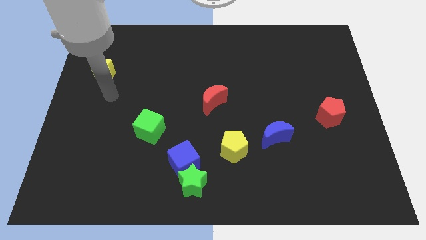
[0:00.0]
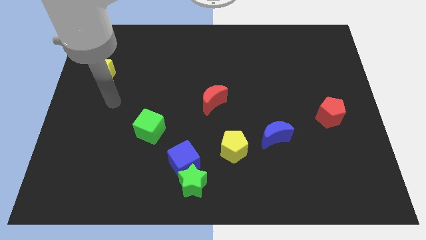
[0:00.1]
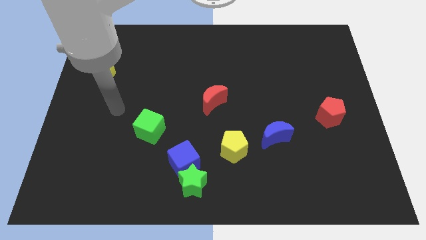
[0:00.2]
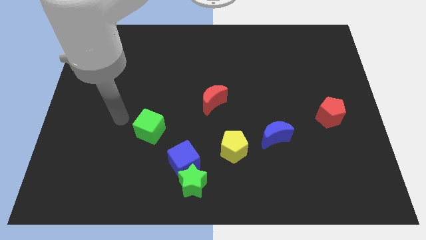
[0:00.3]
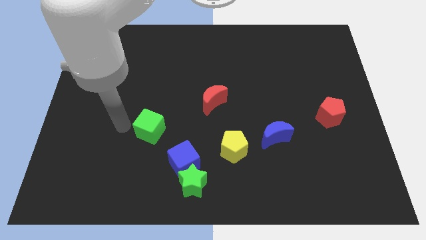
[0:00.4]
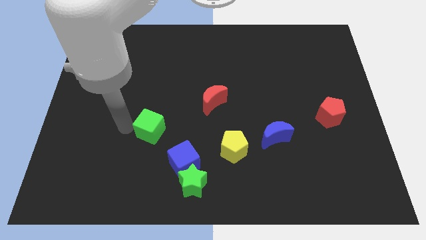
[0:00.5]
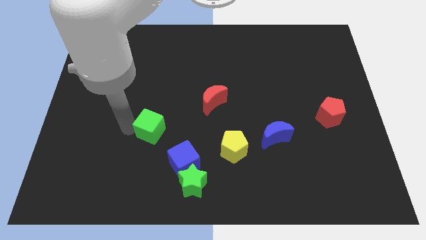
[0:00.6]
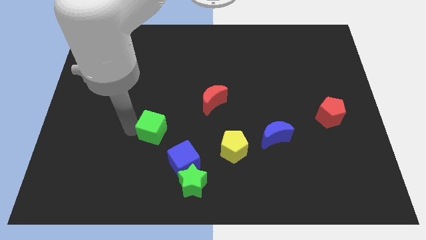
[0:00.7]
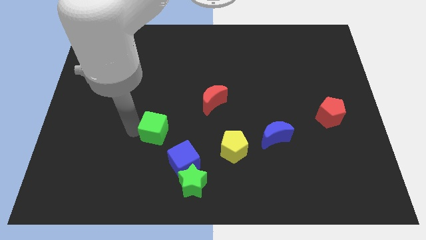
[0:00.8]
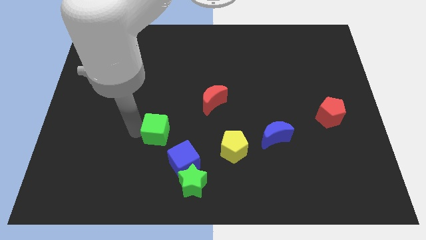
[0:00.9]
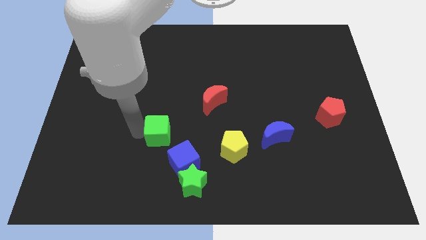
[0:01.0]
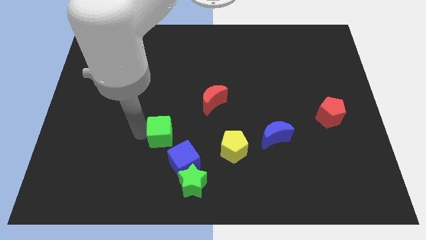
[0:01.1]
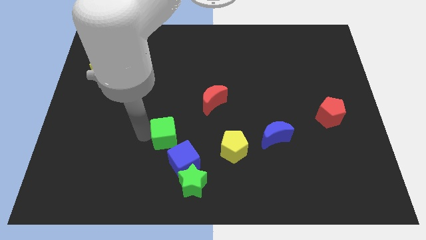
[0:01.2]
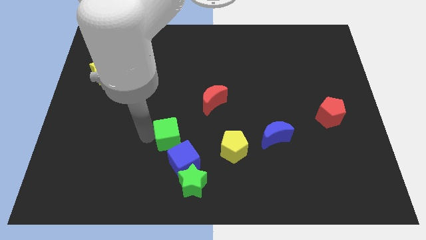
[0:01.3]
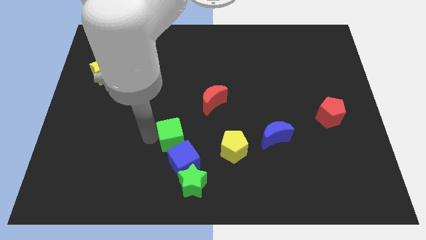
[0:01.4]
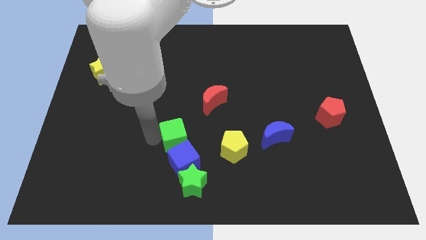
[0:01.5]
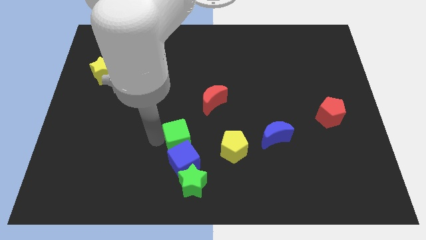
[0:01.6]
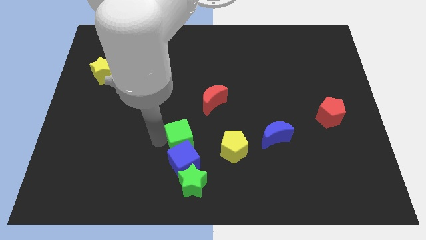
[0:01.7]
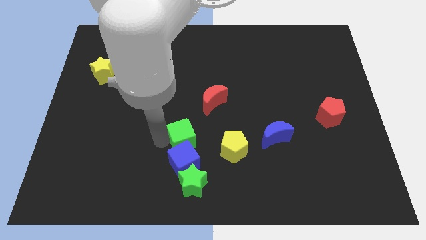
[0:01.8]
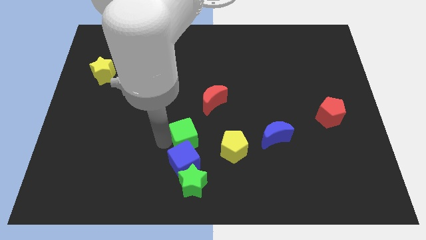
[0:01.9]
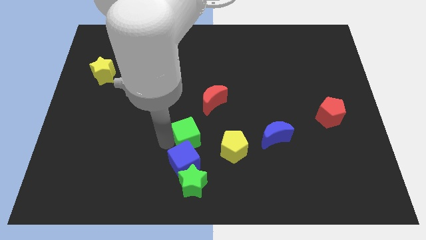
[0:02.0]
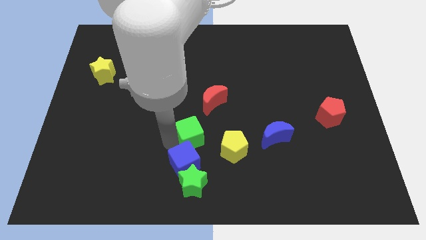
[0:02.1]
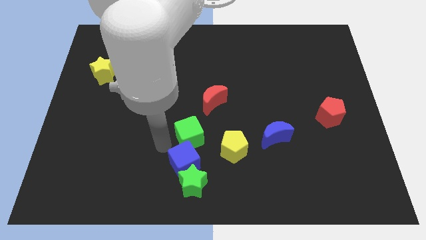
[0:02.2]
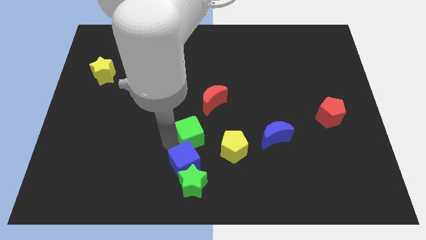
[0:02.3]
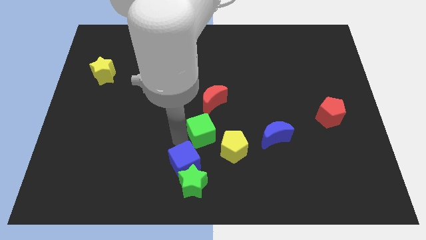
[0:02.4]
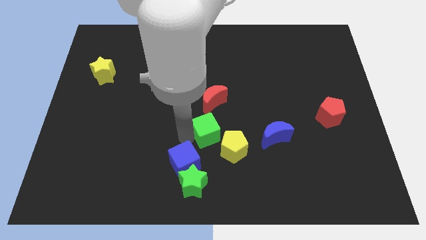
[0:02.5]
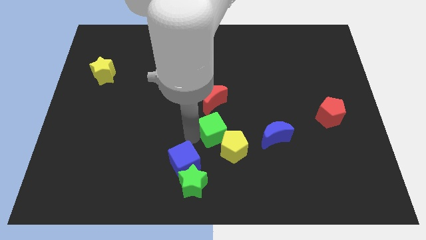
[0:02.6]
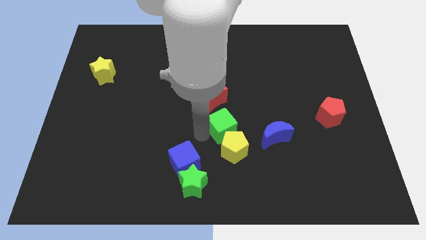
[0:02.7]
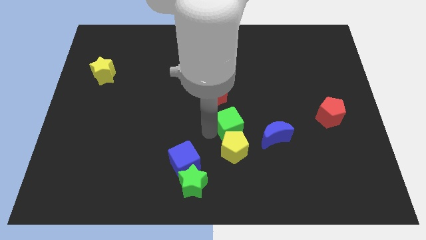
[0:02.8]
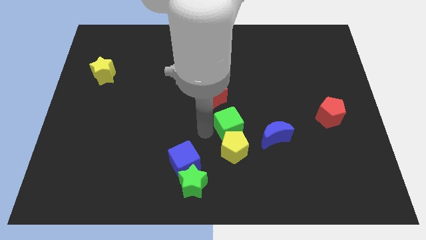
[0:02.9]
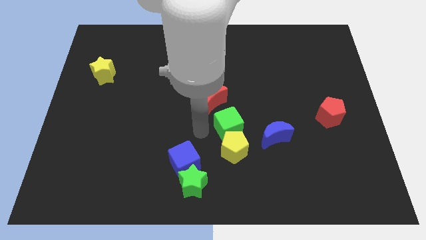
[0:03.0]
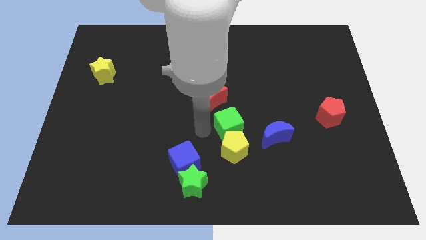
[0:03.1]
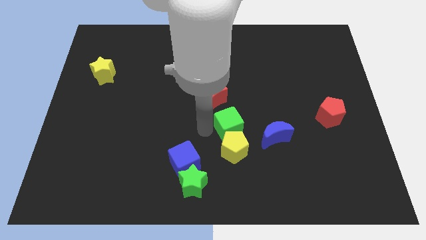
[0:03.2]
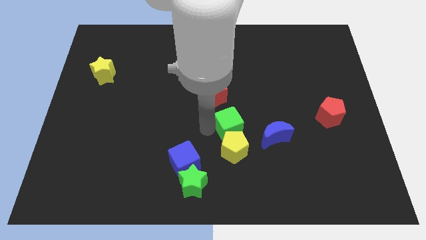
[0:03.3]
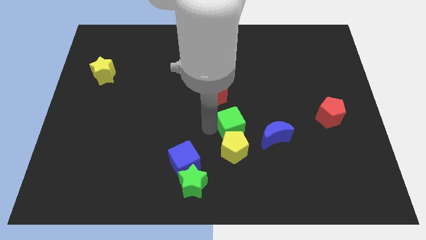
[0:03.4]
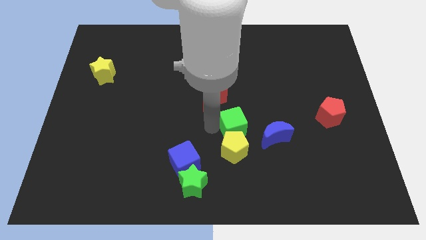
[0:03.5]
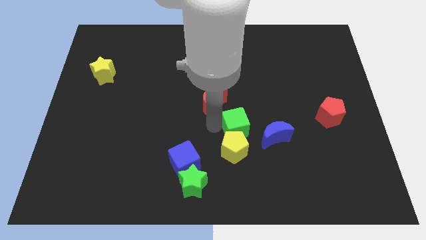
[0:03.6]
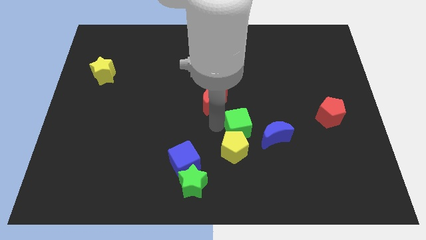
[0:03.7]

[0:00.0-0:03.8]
move the green cube to the right

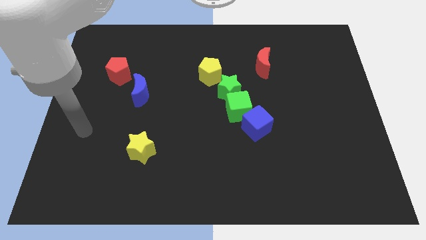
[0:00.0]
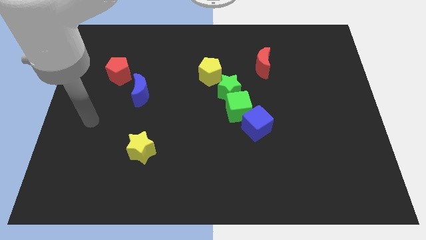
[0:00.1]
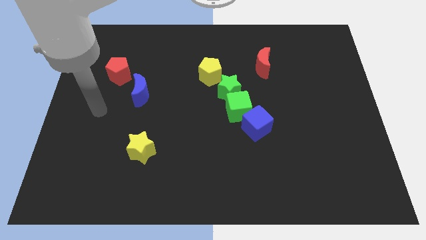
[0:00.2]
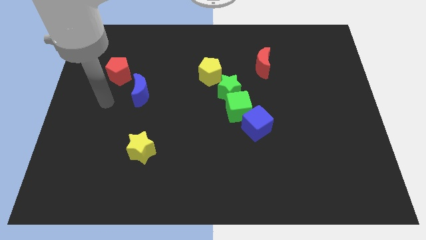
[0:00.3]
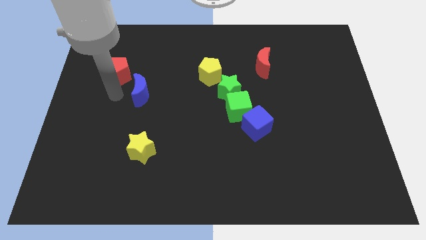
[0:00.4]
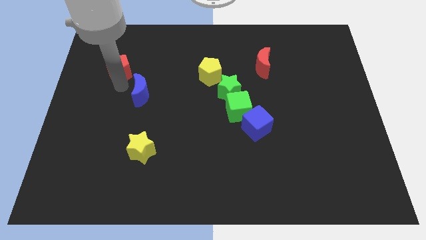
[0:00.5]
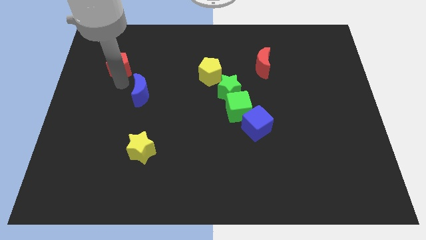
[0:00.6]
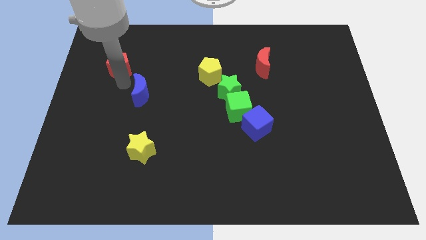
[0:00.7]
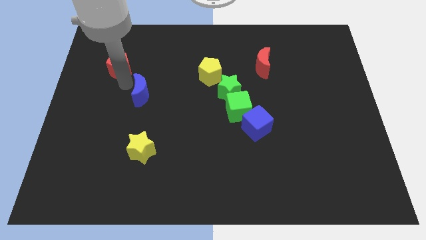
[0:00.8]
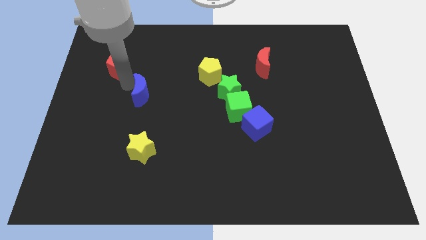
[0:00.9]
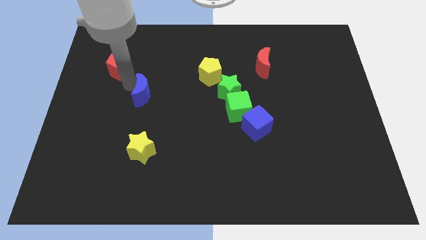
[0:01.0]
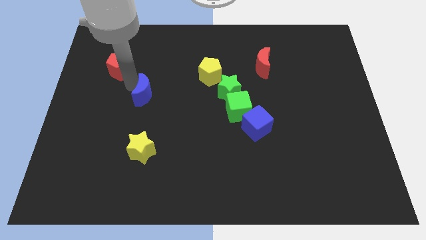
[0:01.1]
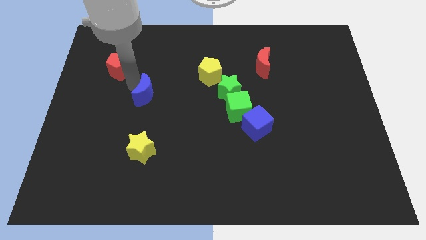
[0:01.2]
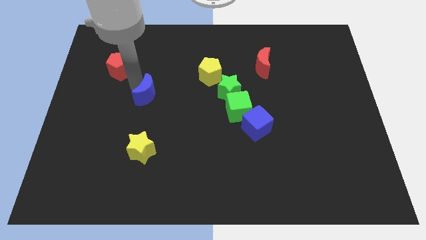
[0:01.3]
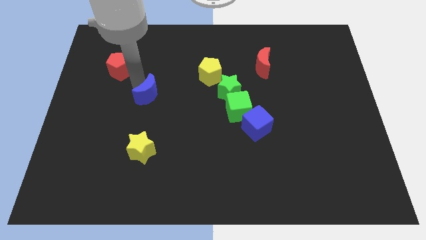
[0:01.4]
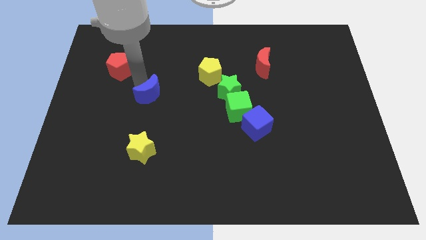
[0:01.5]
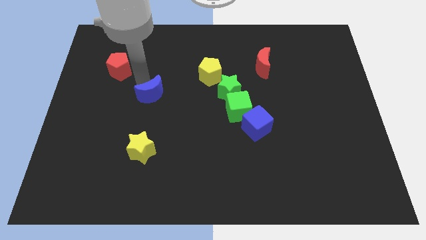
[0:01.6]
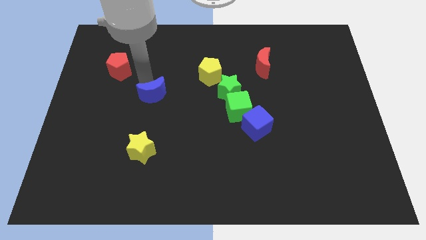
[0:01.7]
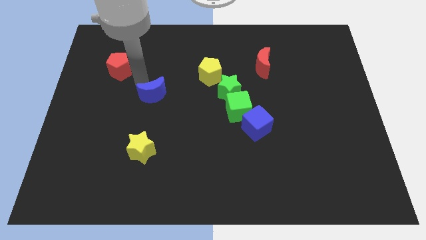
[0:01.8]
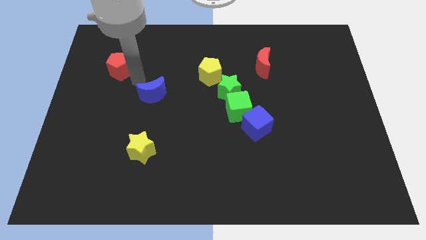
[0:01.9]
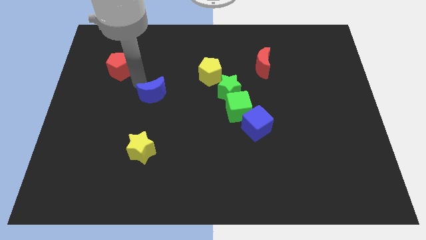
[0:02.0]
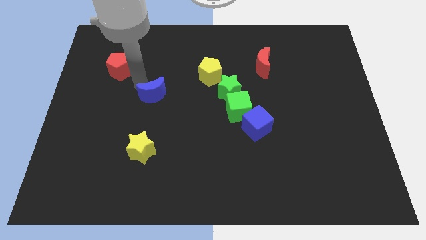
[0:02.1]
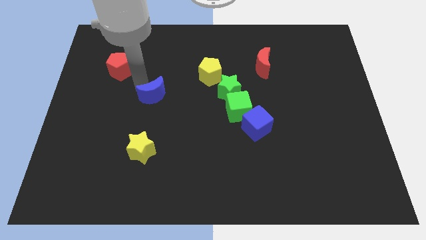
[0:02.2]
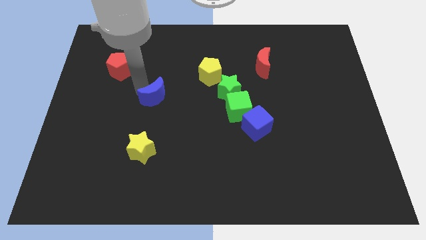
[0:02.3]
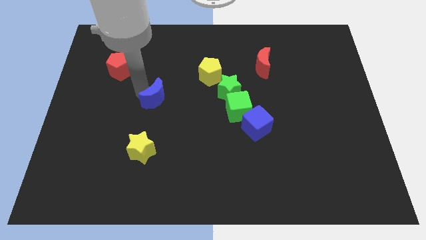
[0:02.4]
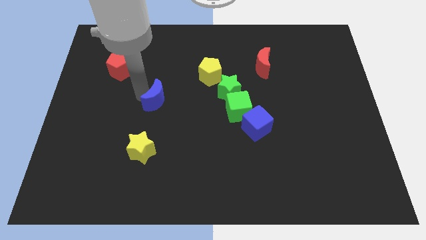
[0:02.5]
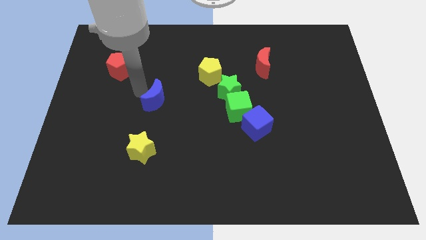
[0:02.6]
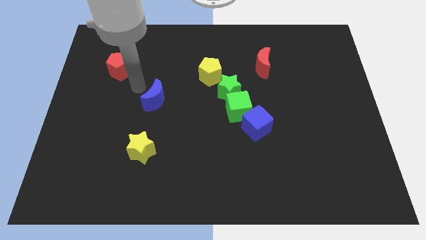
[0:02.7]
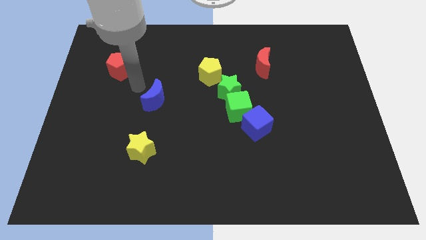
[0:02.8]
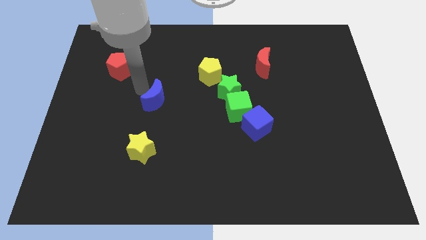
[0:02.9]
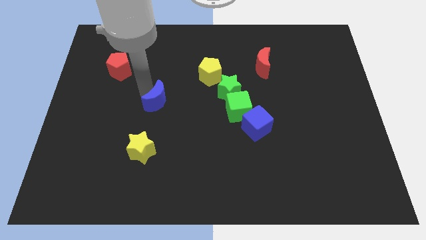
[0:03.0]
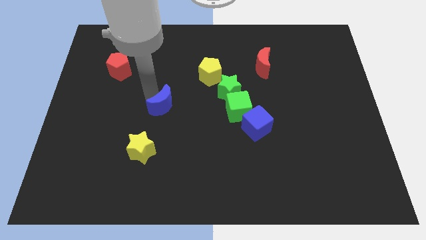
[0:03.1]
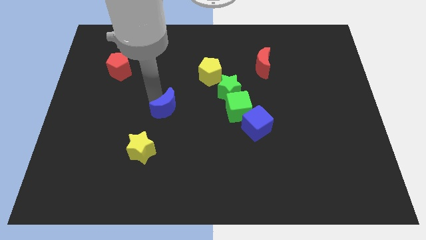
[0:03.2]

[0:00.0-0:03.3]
push the blue moon slightly down and to the right diagonally

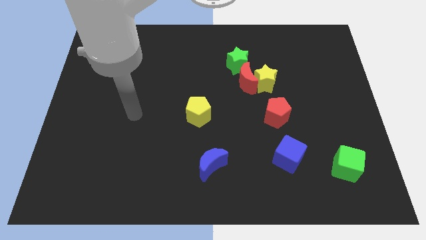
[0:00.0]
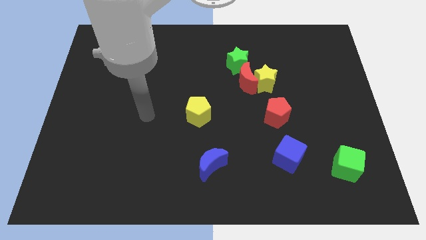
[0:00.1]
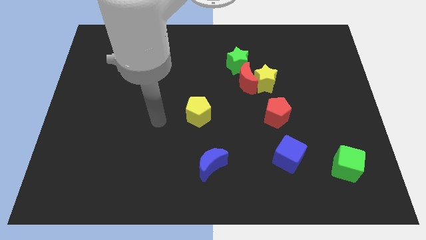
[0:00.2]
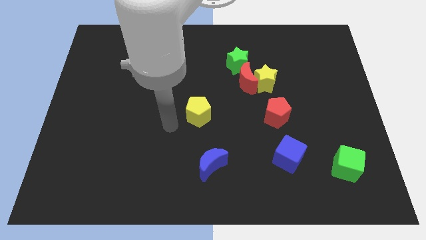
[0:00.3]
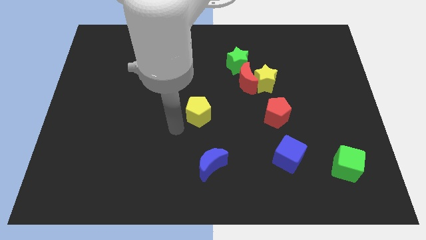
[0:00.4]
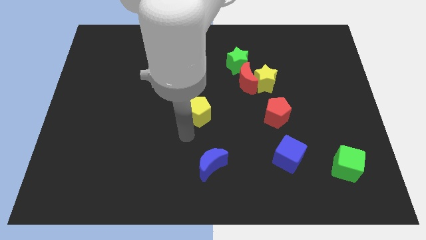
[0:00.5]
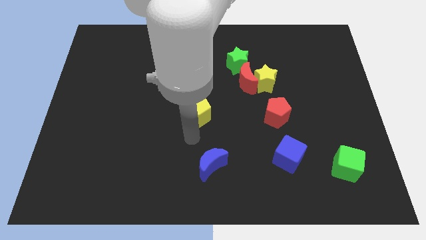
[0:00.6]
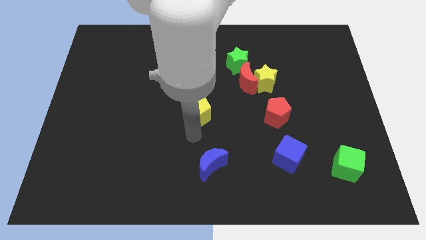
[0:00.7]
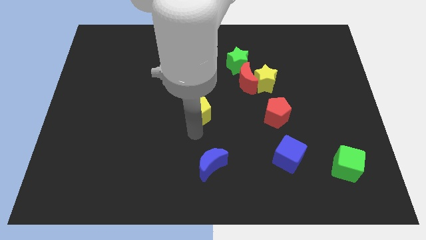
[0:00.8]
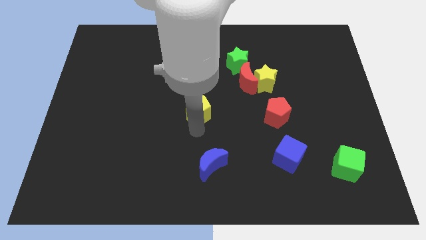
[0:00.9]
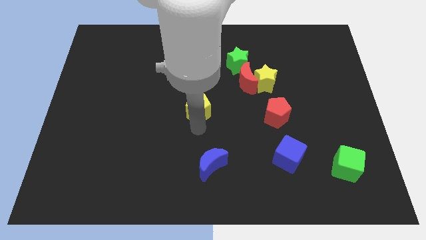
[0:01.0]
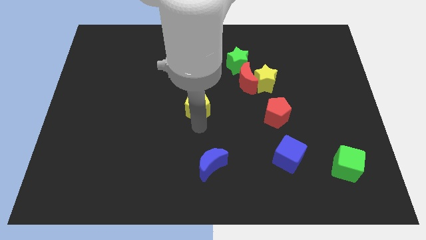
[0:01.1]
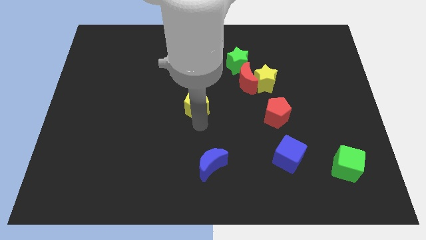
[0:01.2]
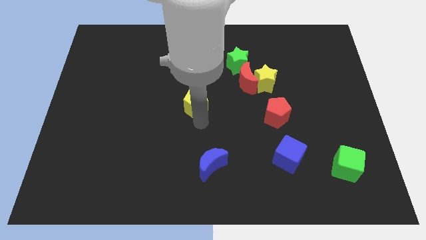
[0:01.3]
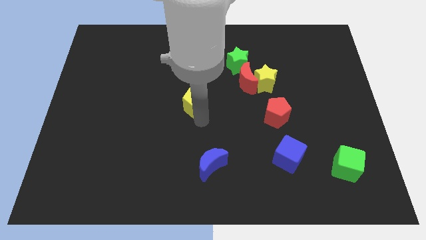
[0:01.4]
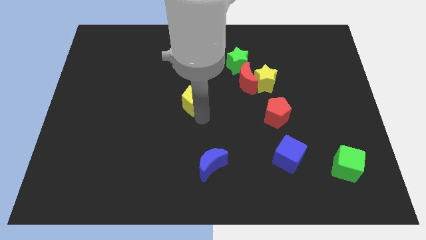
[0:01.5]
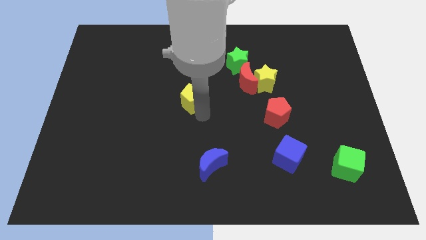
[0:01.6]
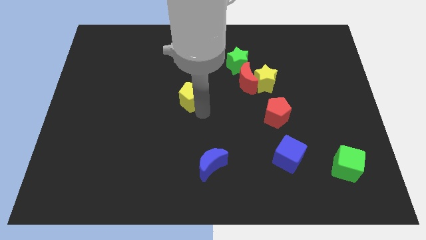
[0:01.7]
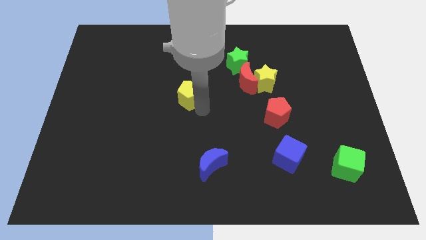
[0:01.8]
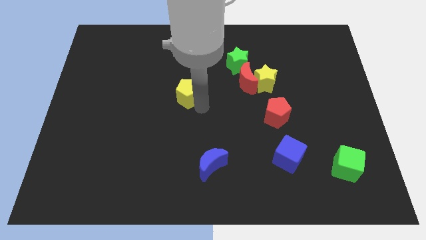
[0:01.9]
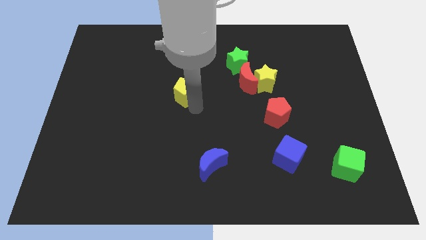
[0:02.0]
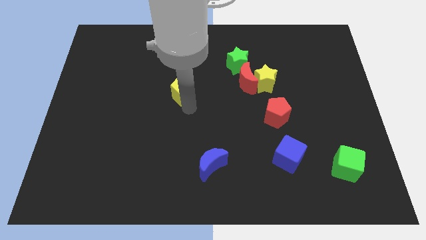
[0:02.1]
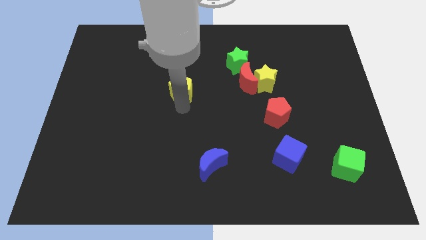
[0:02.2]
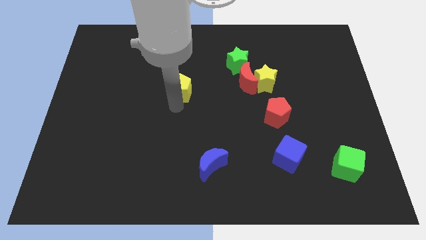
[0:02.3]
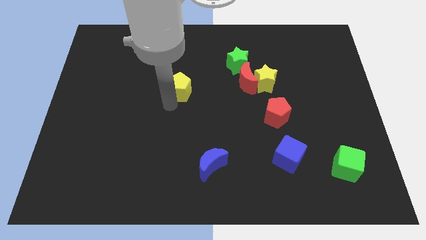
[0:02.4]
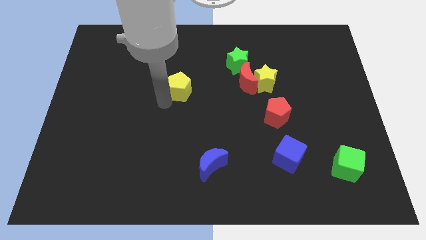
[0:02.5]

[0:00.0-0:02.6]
slide the yellow pentagon somewhat upwards
